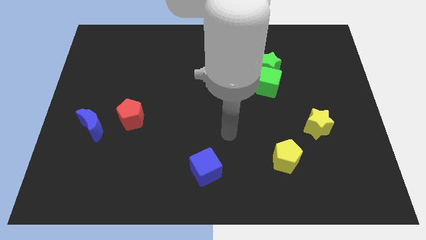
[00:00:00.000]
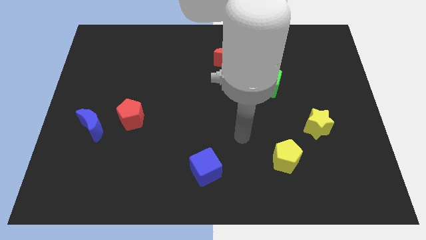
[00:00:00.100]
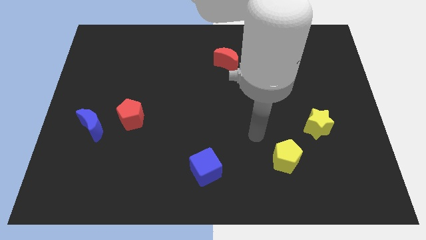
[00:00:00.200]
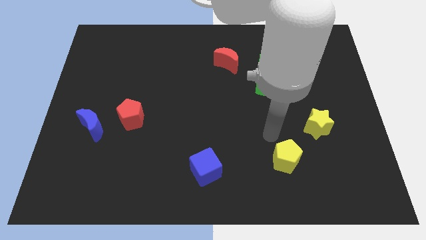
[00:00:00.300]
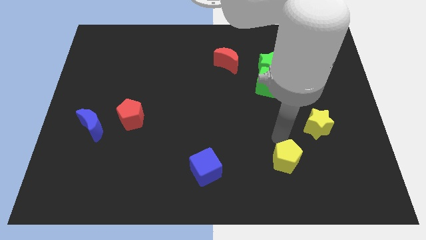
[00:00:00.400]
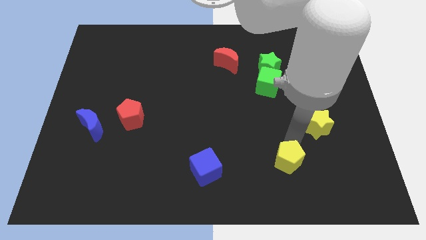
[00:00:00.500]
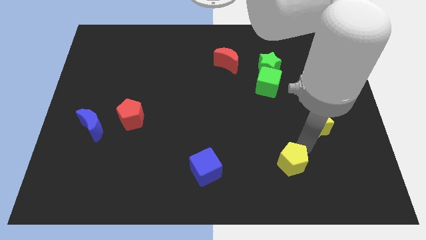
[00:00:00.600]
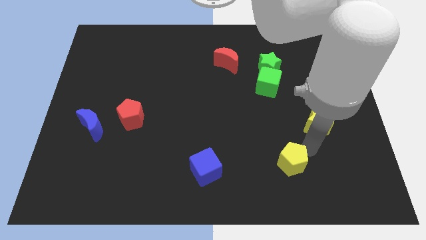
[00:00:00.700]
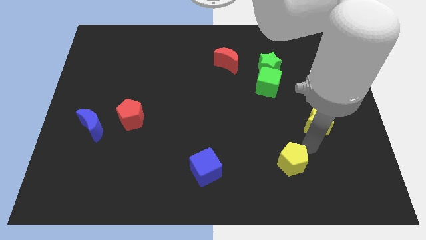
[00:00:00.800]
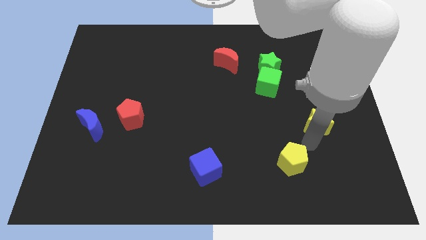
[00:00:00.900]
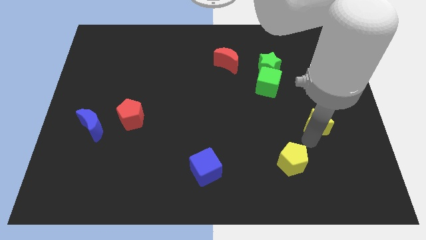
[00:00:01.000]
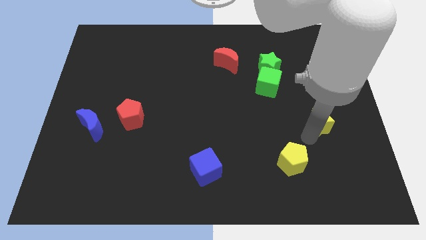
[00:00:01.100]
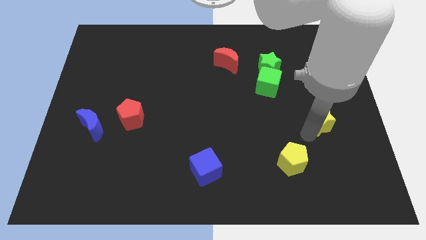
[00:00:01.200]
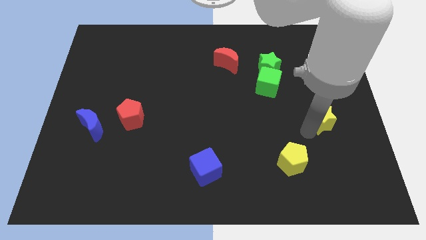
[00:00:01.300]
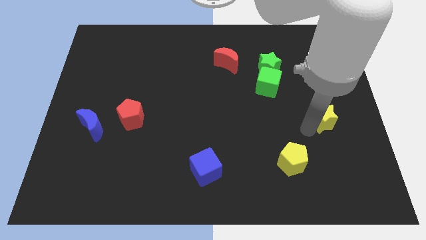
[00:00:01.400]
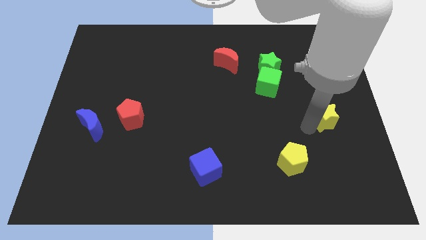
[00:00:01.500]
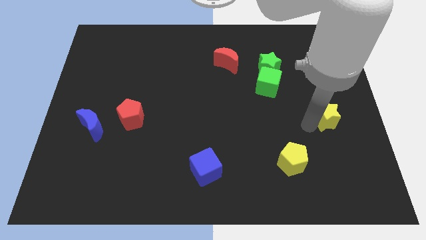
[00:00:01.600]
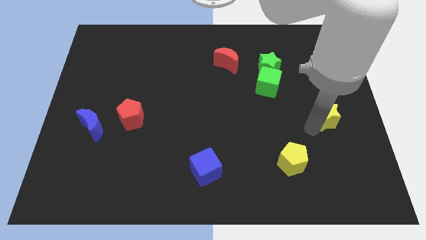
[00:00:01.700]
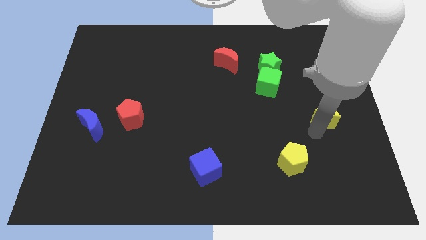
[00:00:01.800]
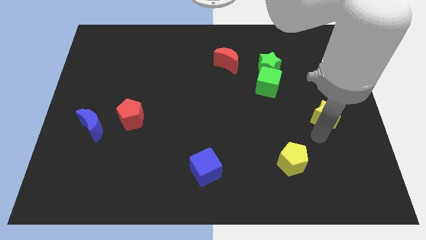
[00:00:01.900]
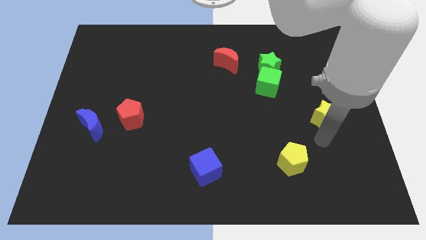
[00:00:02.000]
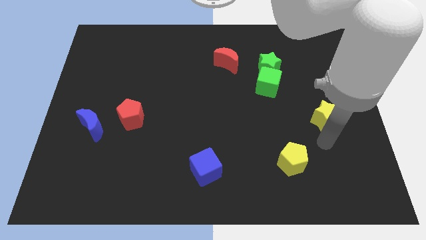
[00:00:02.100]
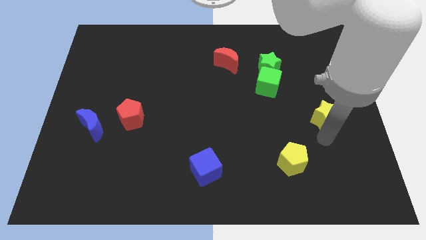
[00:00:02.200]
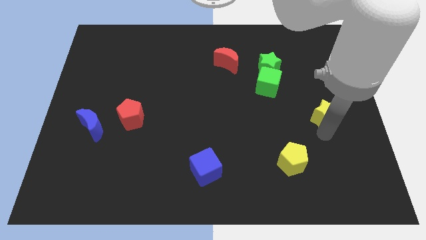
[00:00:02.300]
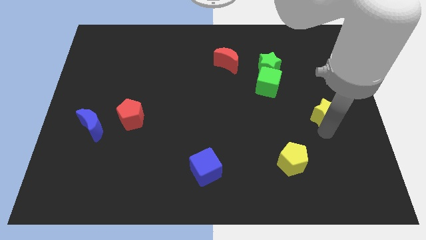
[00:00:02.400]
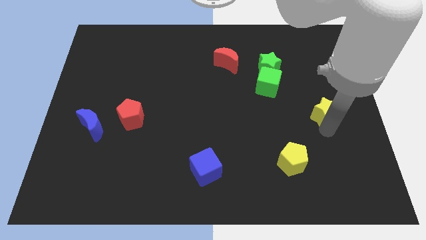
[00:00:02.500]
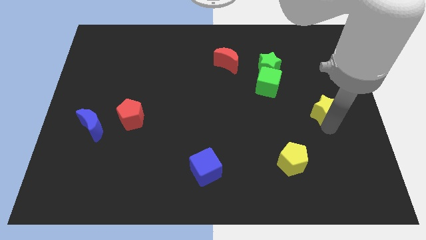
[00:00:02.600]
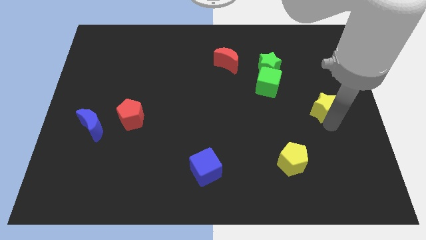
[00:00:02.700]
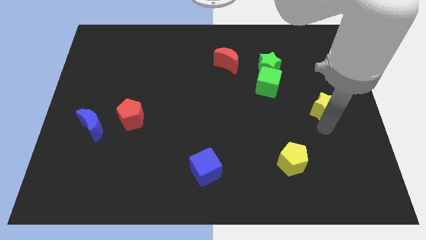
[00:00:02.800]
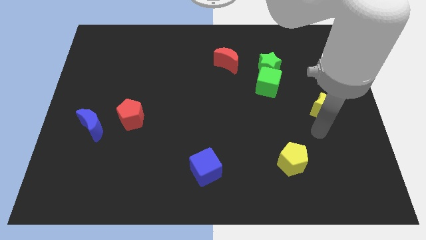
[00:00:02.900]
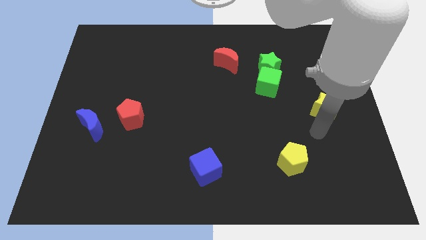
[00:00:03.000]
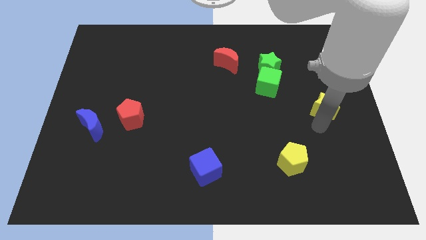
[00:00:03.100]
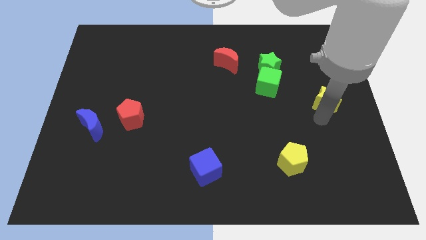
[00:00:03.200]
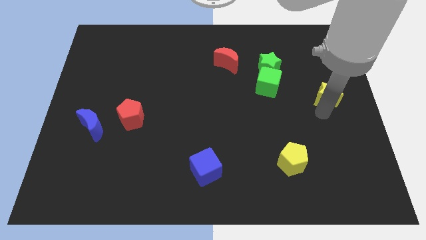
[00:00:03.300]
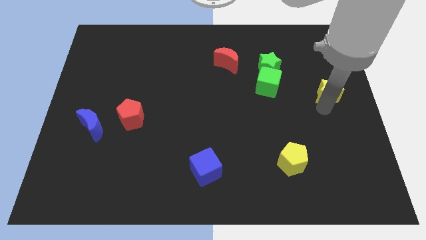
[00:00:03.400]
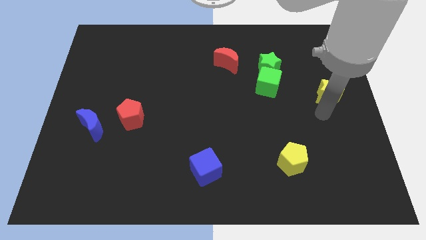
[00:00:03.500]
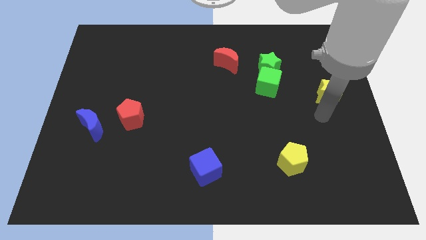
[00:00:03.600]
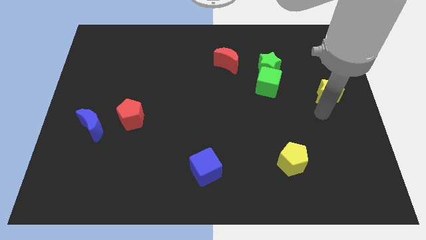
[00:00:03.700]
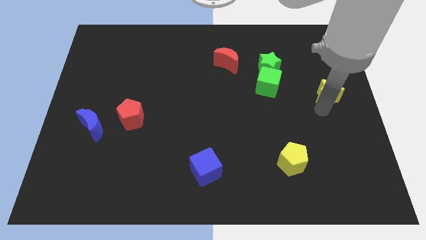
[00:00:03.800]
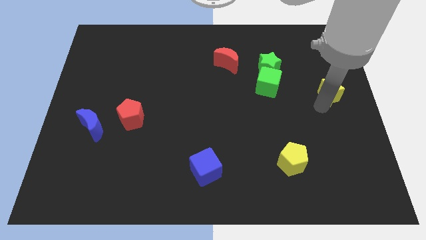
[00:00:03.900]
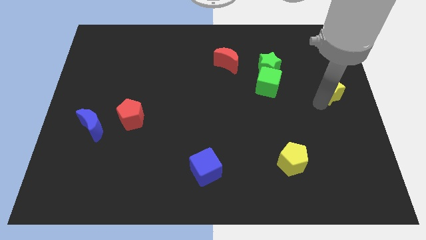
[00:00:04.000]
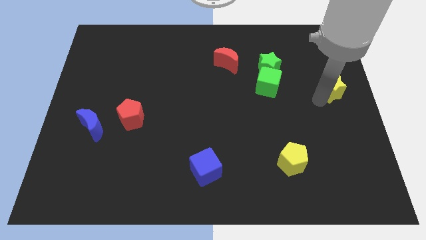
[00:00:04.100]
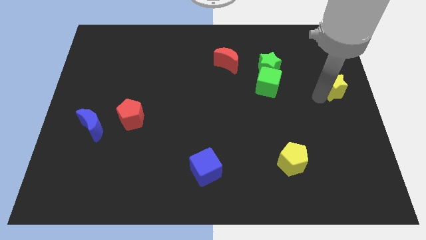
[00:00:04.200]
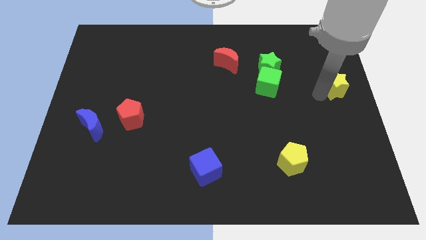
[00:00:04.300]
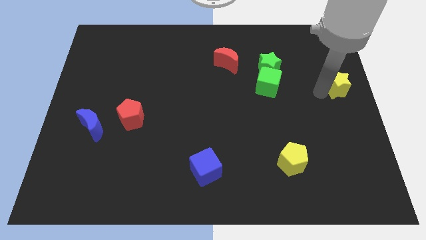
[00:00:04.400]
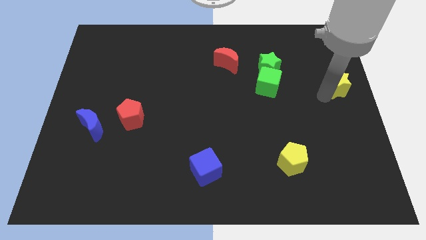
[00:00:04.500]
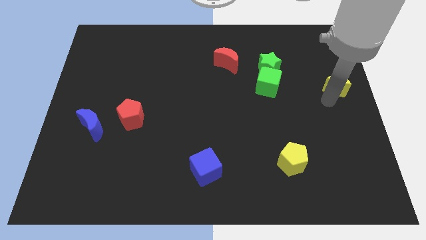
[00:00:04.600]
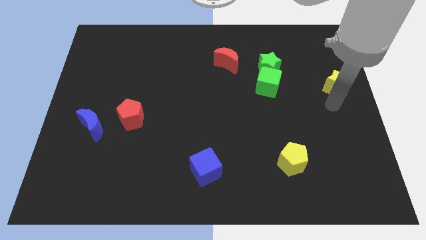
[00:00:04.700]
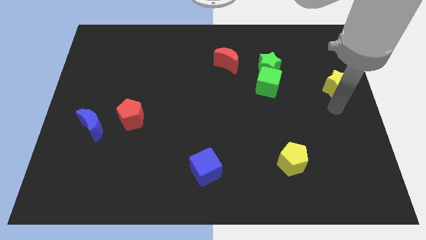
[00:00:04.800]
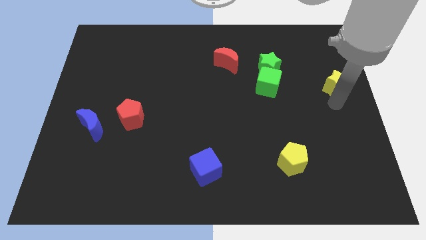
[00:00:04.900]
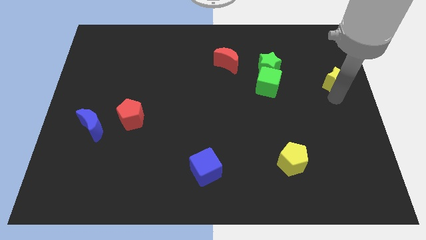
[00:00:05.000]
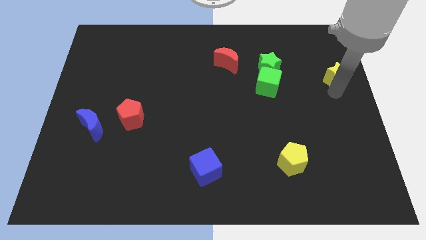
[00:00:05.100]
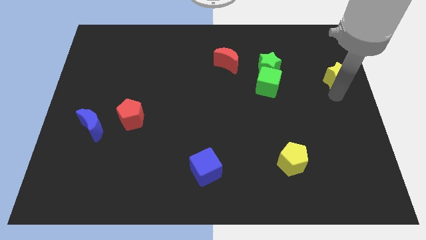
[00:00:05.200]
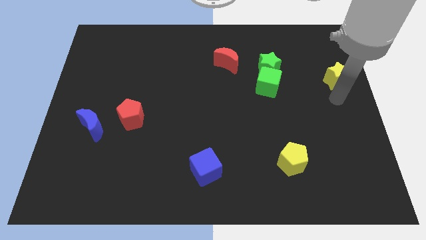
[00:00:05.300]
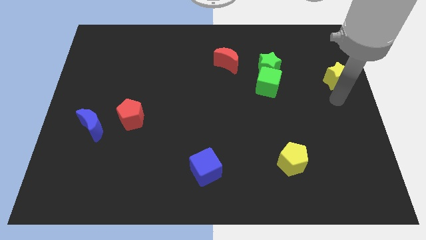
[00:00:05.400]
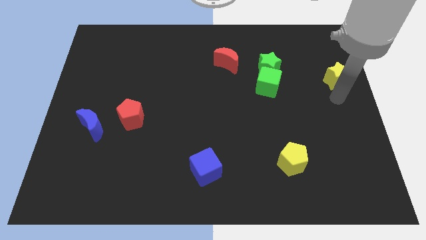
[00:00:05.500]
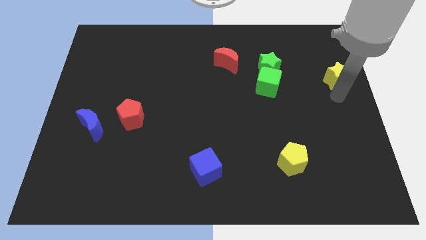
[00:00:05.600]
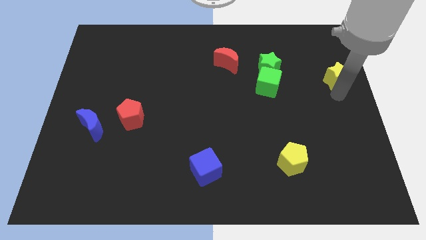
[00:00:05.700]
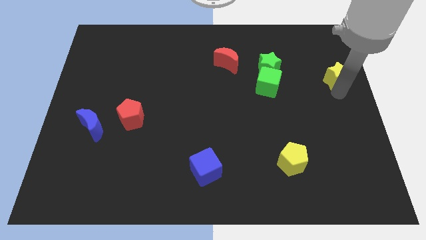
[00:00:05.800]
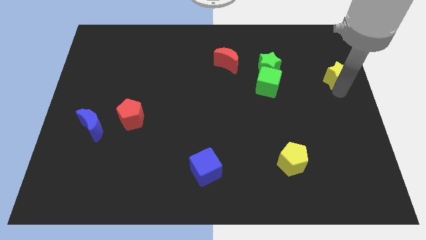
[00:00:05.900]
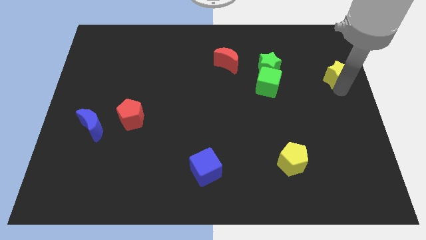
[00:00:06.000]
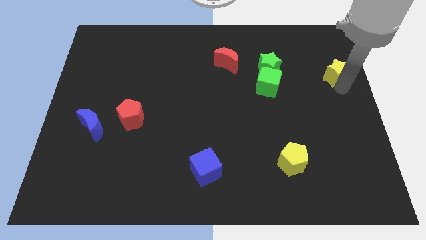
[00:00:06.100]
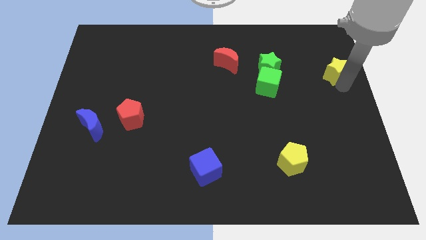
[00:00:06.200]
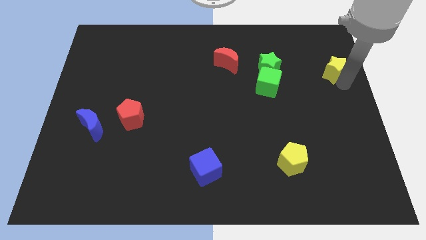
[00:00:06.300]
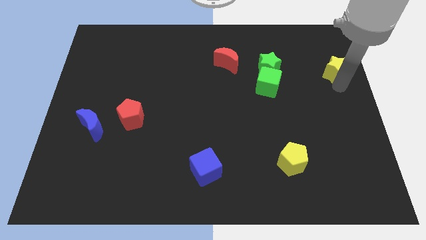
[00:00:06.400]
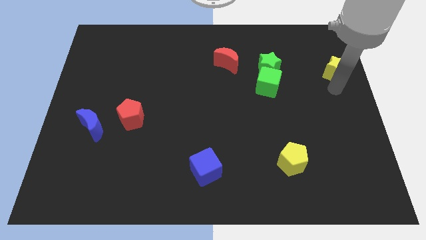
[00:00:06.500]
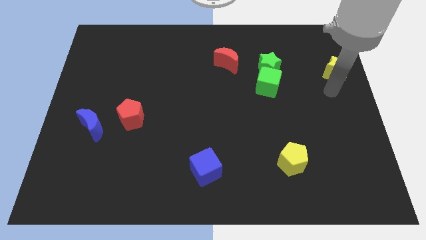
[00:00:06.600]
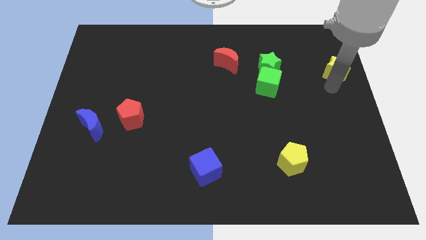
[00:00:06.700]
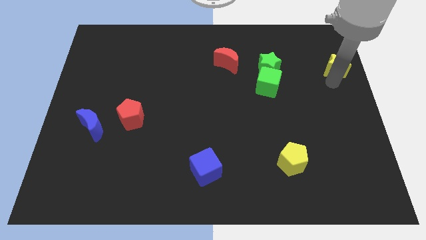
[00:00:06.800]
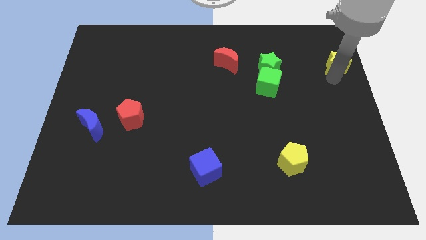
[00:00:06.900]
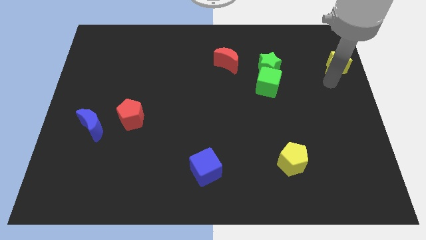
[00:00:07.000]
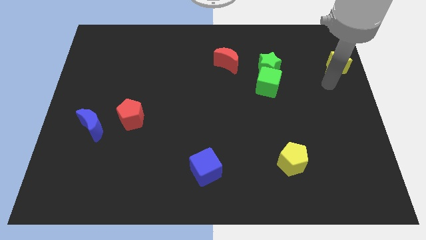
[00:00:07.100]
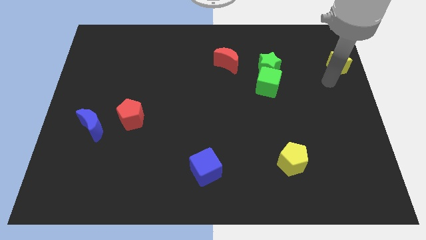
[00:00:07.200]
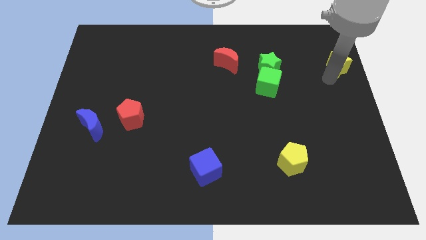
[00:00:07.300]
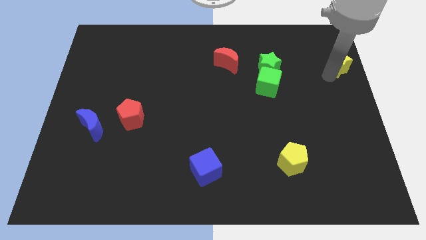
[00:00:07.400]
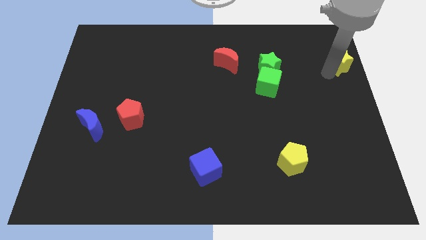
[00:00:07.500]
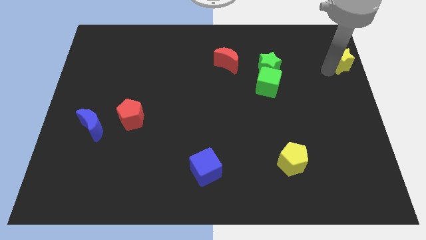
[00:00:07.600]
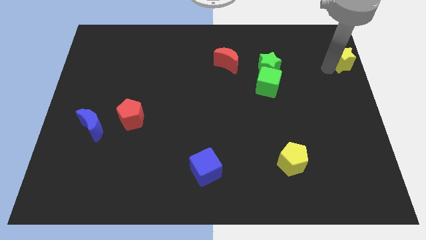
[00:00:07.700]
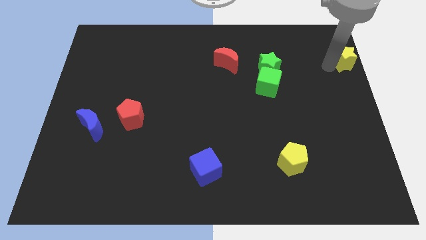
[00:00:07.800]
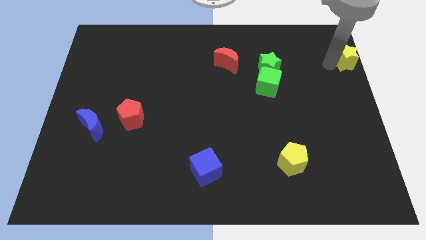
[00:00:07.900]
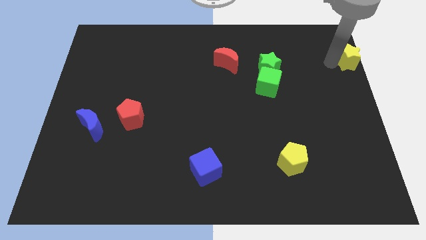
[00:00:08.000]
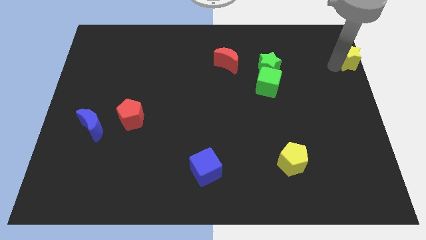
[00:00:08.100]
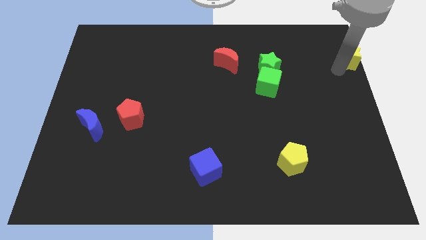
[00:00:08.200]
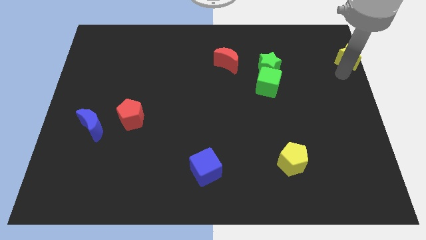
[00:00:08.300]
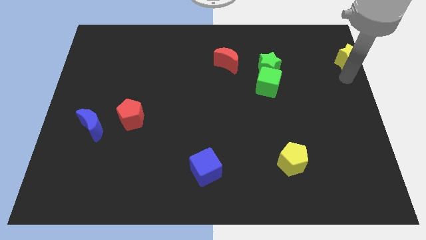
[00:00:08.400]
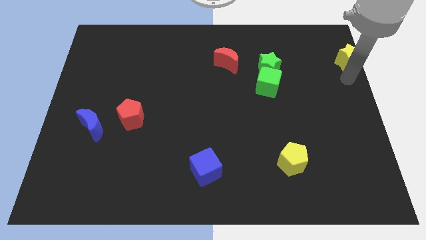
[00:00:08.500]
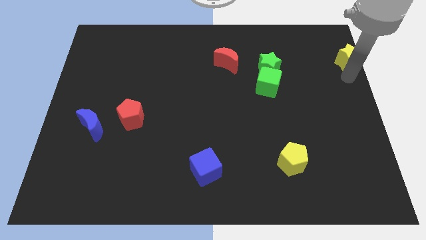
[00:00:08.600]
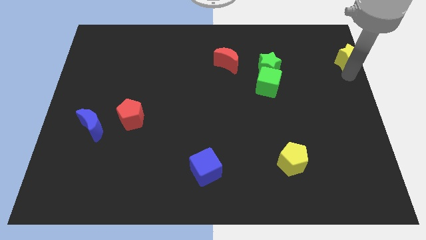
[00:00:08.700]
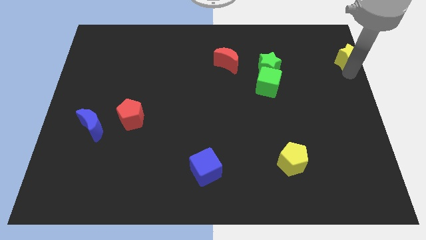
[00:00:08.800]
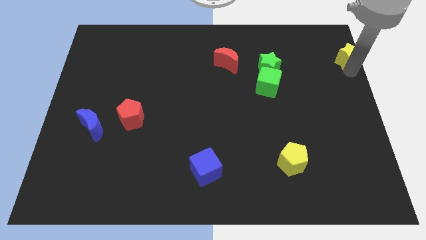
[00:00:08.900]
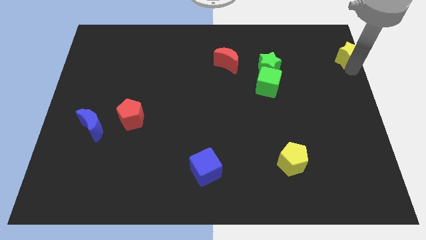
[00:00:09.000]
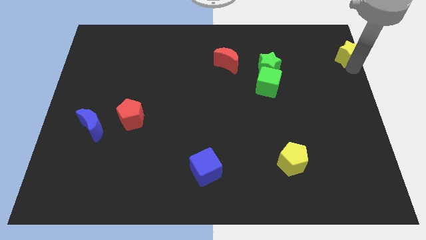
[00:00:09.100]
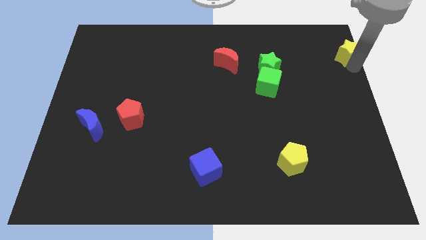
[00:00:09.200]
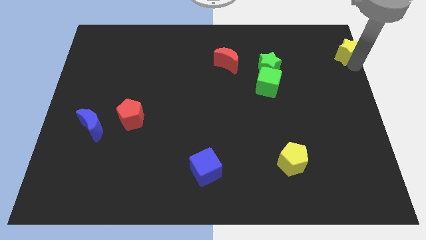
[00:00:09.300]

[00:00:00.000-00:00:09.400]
move the yellow star to the upper right corner
